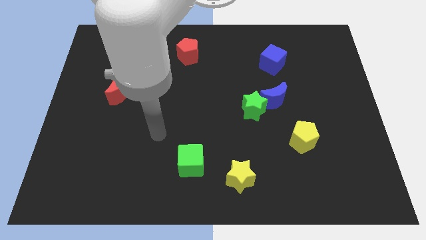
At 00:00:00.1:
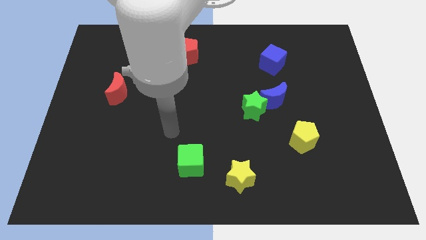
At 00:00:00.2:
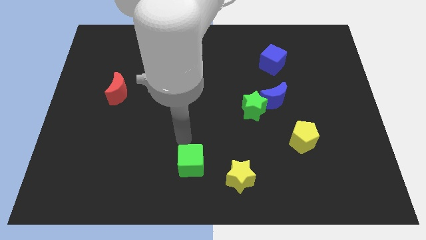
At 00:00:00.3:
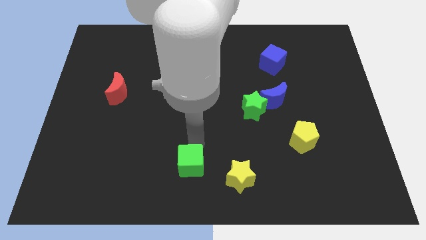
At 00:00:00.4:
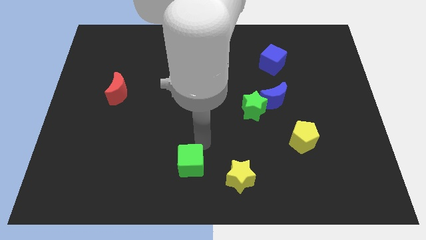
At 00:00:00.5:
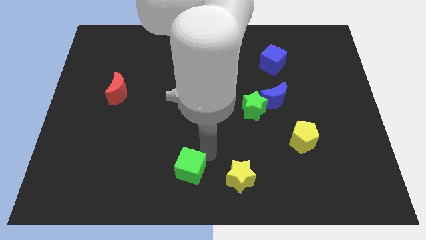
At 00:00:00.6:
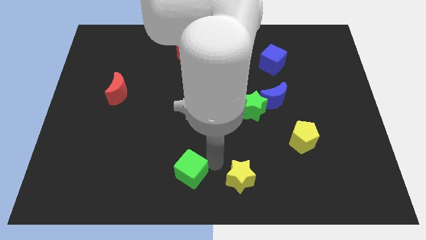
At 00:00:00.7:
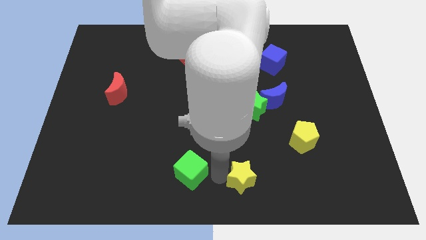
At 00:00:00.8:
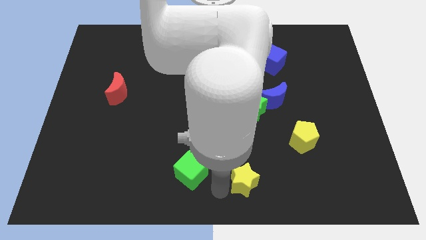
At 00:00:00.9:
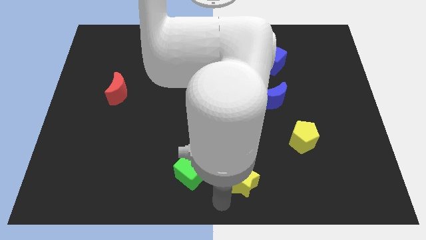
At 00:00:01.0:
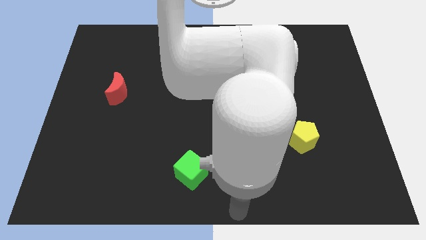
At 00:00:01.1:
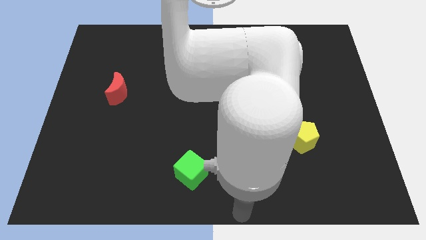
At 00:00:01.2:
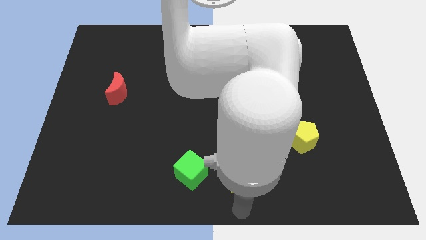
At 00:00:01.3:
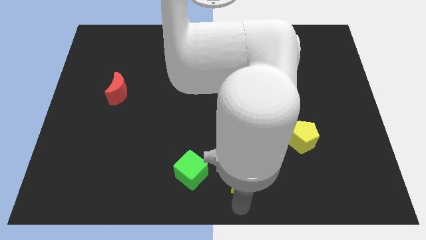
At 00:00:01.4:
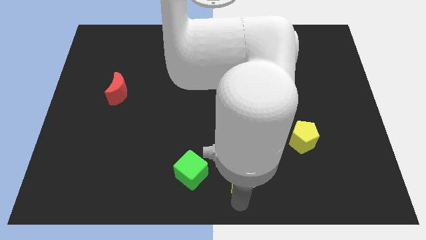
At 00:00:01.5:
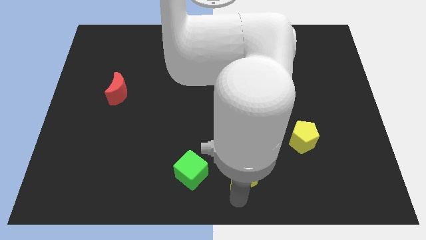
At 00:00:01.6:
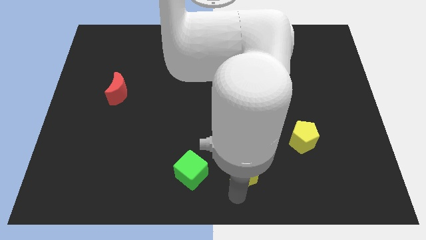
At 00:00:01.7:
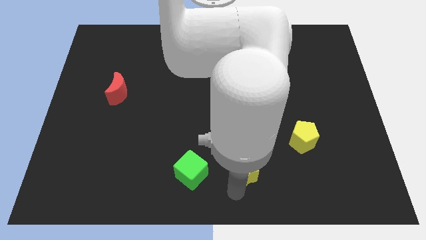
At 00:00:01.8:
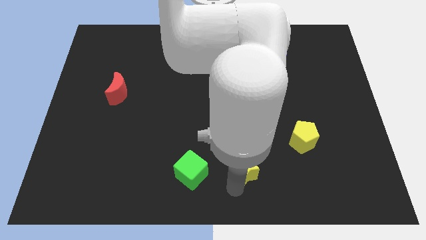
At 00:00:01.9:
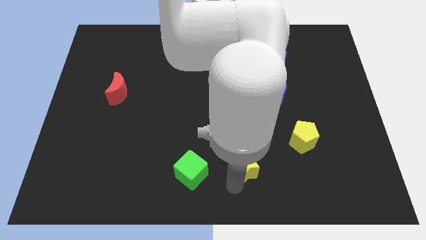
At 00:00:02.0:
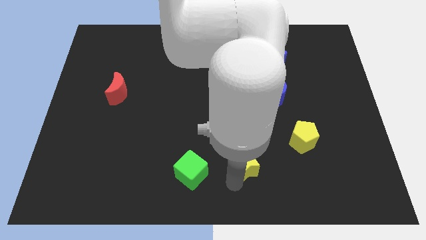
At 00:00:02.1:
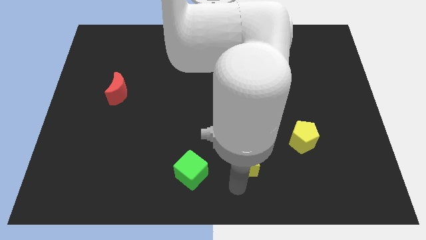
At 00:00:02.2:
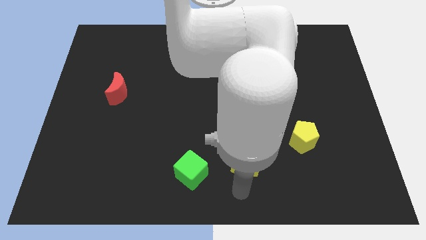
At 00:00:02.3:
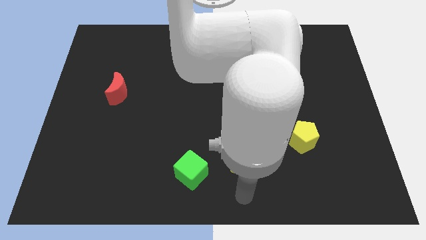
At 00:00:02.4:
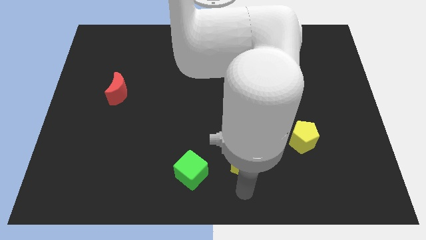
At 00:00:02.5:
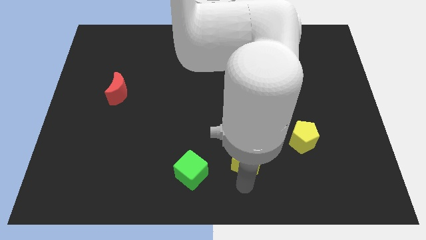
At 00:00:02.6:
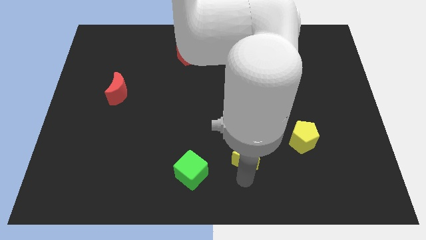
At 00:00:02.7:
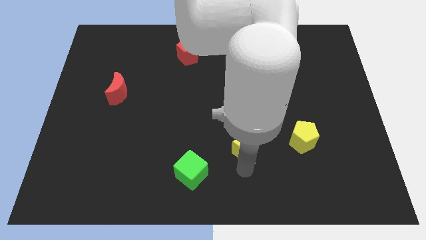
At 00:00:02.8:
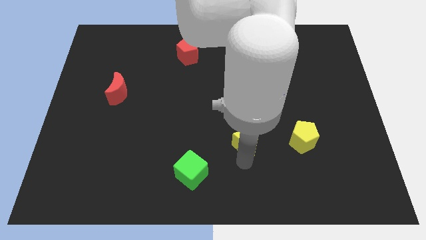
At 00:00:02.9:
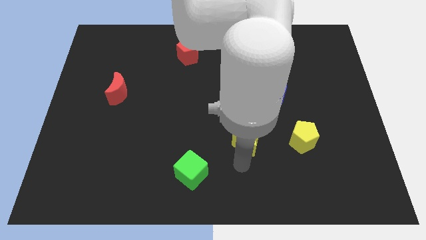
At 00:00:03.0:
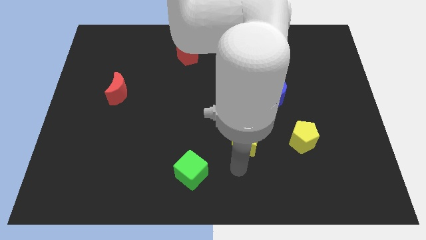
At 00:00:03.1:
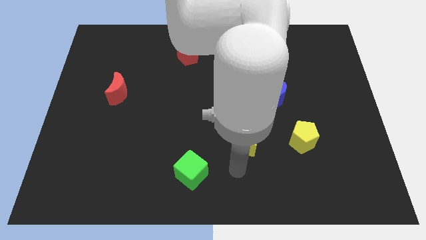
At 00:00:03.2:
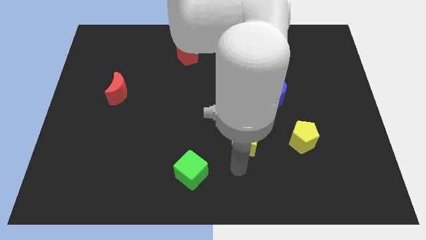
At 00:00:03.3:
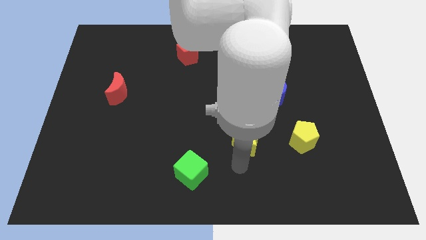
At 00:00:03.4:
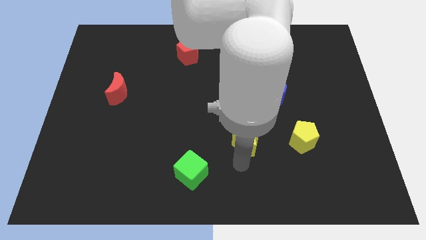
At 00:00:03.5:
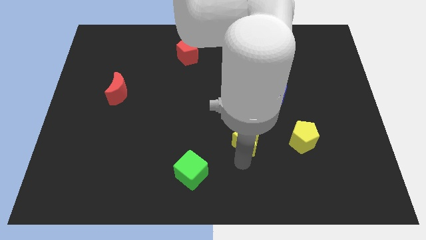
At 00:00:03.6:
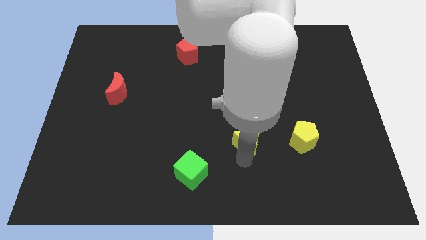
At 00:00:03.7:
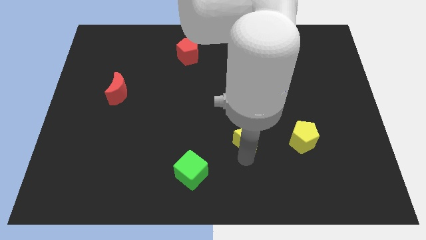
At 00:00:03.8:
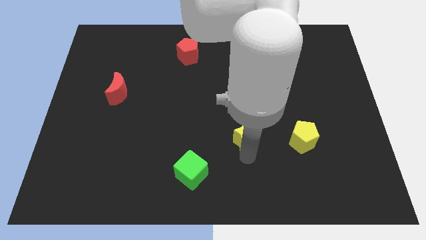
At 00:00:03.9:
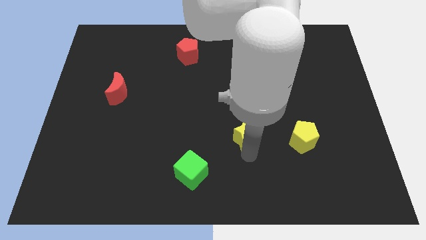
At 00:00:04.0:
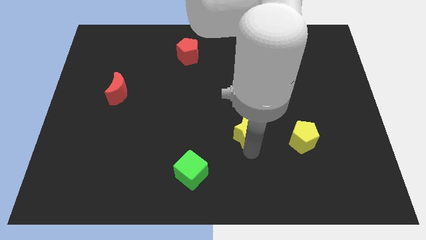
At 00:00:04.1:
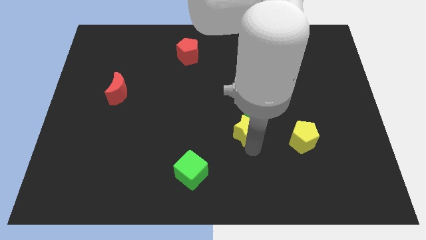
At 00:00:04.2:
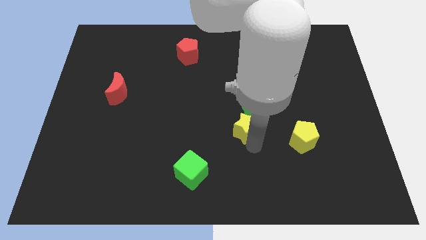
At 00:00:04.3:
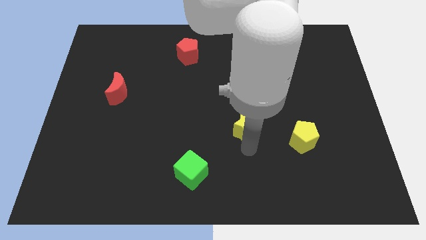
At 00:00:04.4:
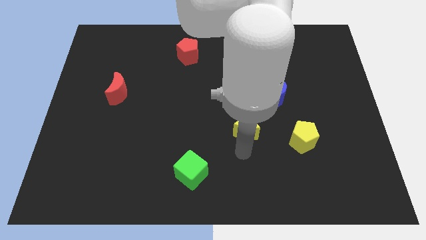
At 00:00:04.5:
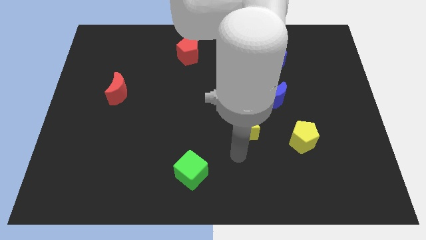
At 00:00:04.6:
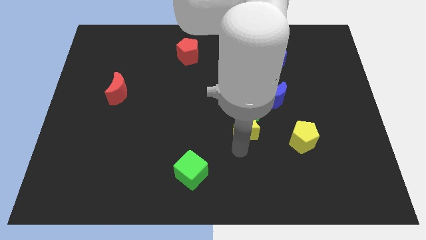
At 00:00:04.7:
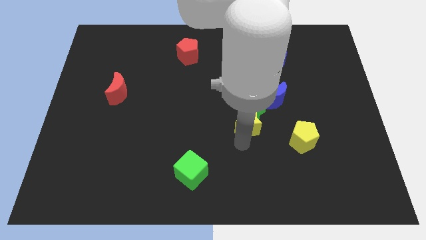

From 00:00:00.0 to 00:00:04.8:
push the yellow star towards the green star

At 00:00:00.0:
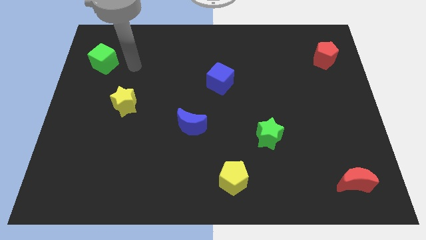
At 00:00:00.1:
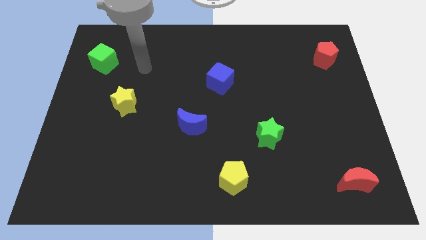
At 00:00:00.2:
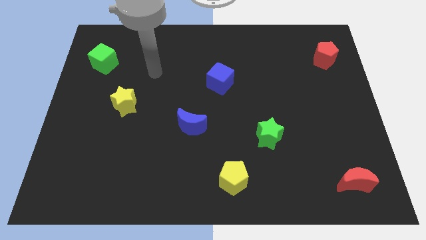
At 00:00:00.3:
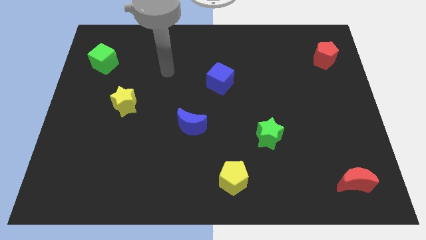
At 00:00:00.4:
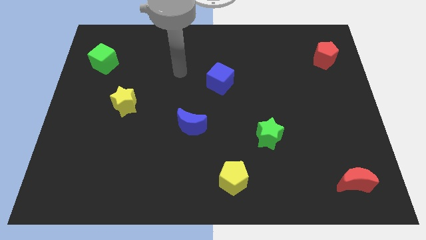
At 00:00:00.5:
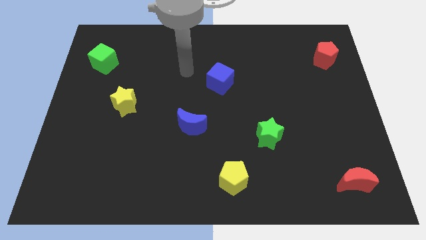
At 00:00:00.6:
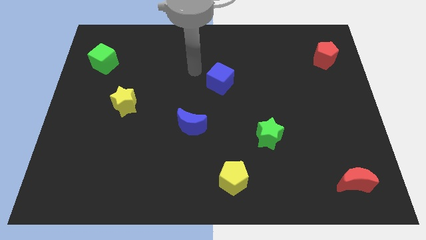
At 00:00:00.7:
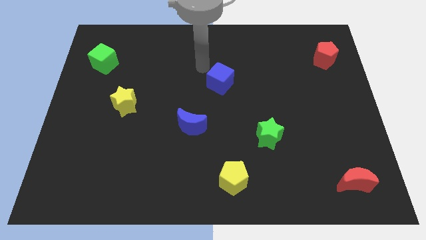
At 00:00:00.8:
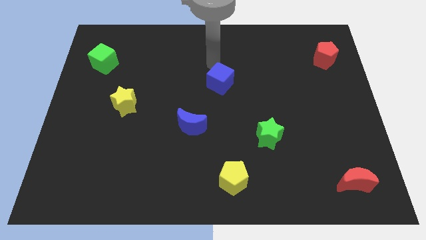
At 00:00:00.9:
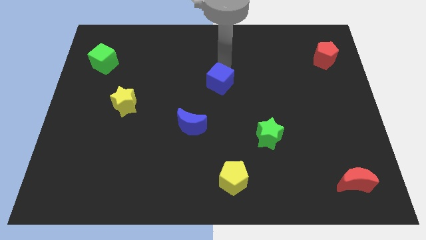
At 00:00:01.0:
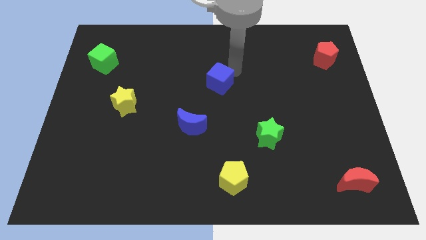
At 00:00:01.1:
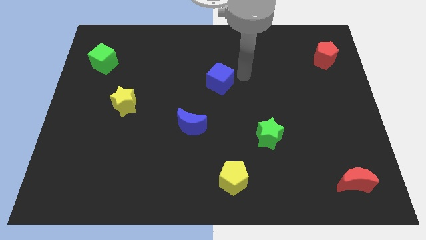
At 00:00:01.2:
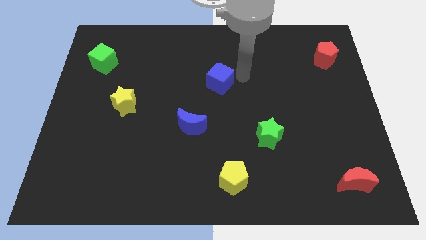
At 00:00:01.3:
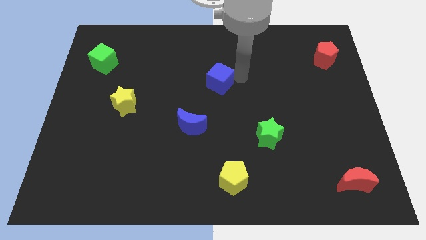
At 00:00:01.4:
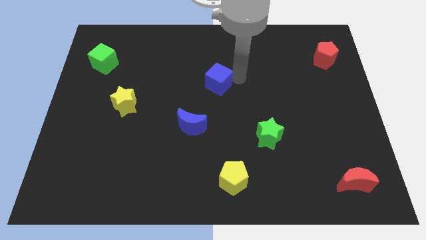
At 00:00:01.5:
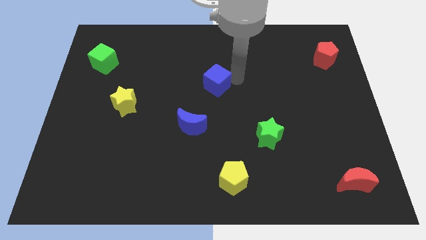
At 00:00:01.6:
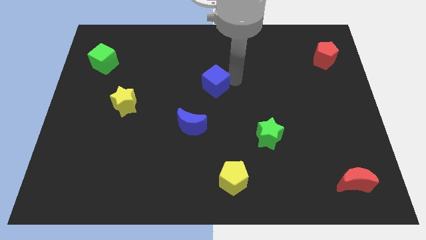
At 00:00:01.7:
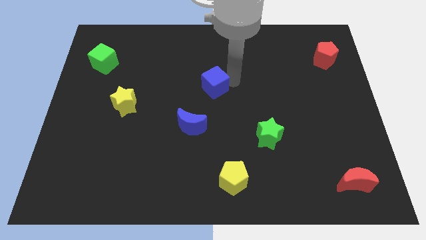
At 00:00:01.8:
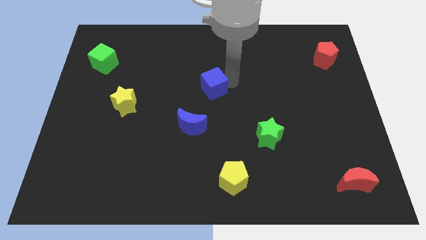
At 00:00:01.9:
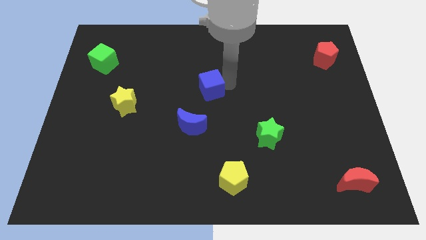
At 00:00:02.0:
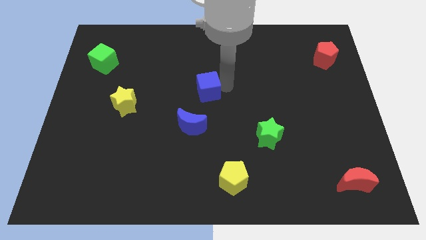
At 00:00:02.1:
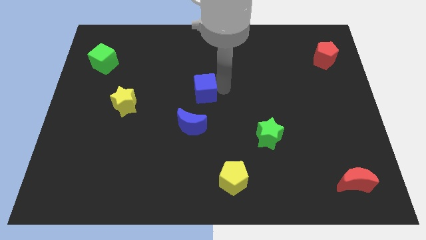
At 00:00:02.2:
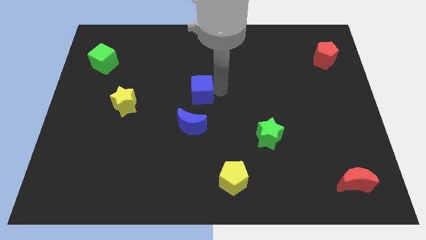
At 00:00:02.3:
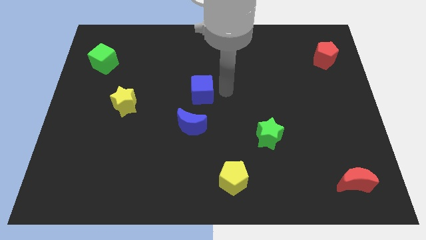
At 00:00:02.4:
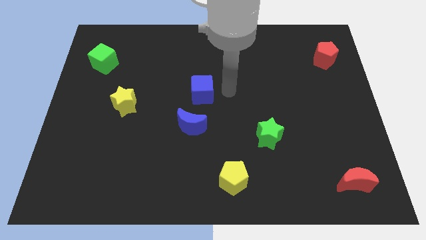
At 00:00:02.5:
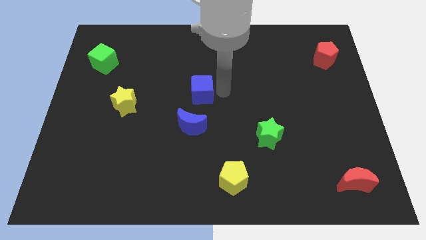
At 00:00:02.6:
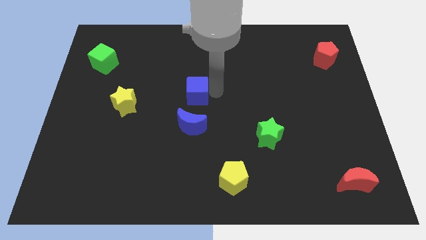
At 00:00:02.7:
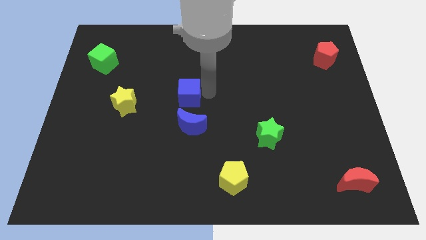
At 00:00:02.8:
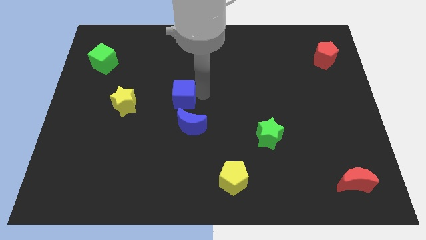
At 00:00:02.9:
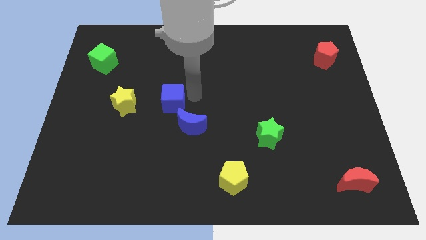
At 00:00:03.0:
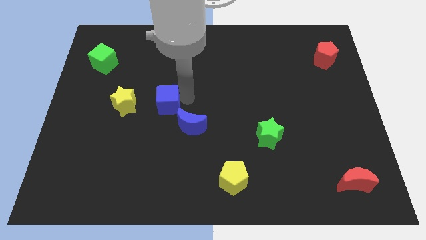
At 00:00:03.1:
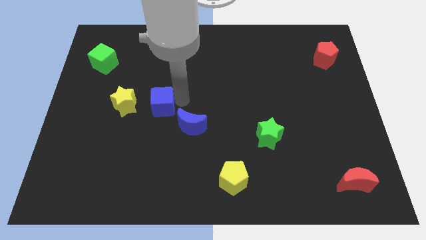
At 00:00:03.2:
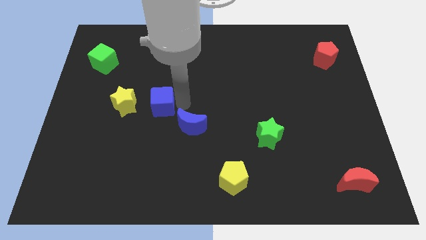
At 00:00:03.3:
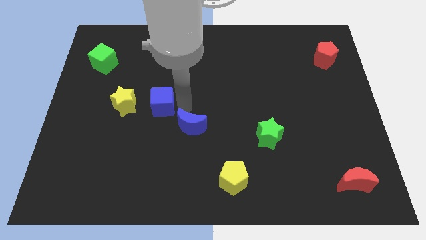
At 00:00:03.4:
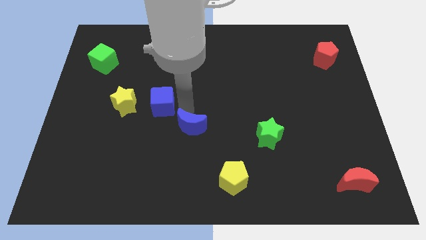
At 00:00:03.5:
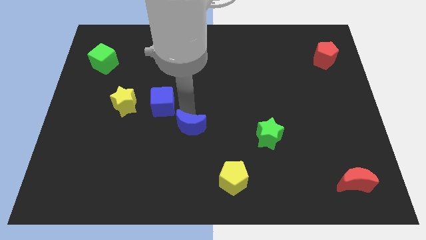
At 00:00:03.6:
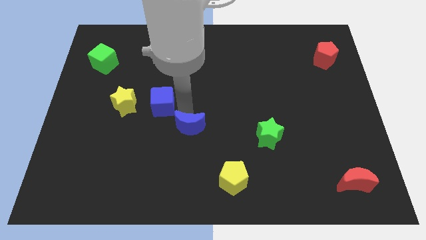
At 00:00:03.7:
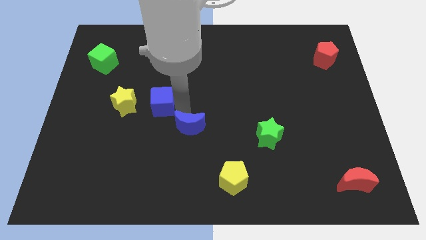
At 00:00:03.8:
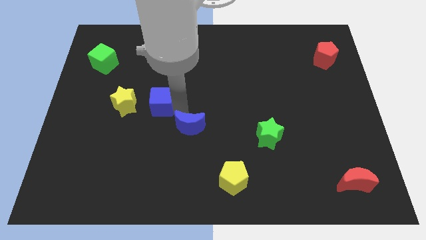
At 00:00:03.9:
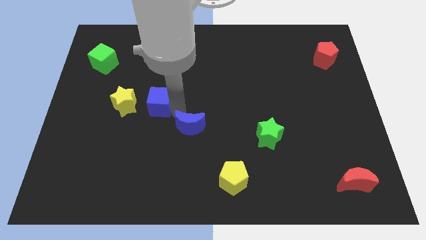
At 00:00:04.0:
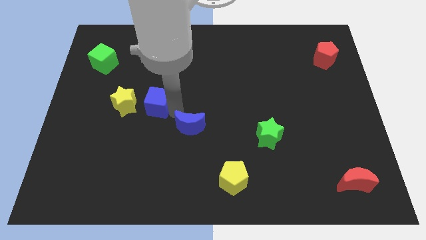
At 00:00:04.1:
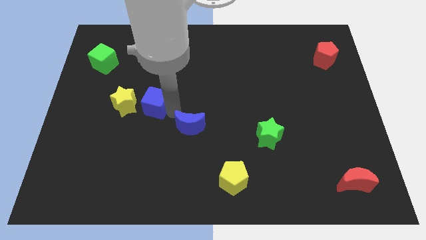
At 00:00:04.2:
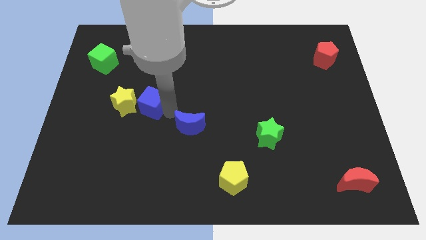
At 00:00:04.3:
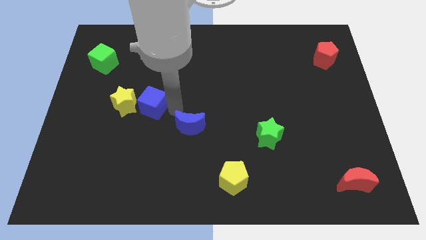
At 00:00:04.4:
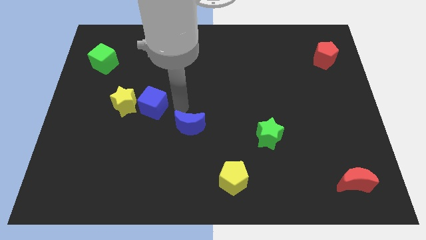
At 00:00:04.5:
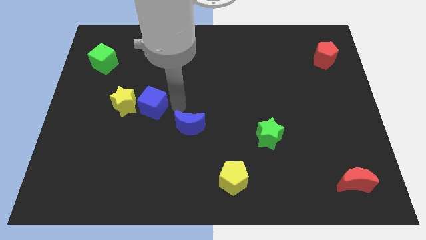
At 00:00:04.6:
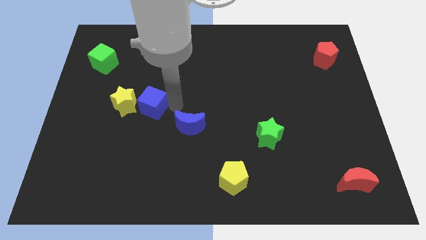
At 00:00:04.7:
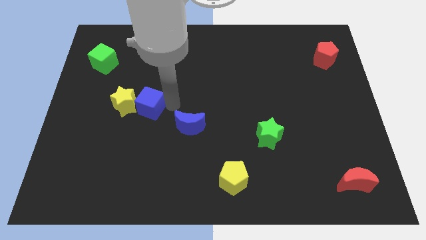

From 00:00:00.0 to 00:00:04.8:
put the blue cube close to the yellow star
